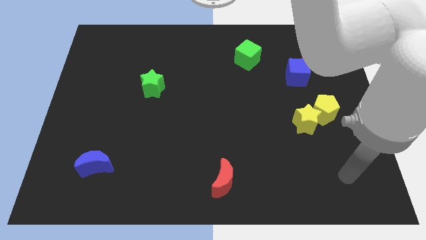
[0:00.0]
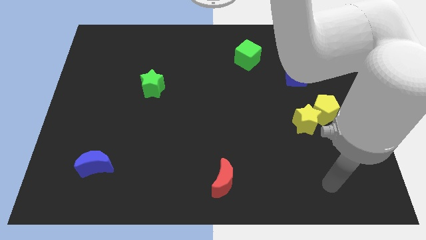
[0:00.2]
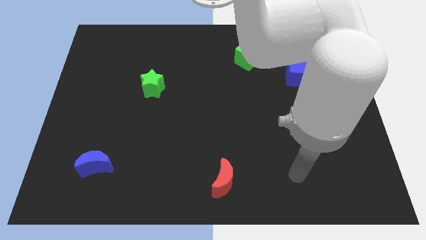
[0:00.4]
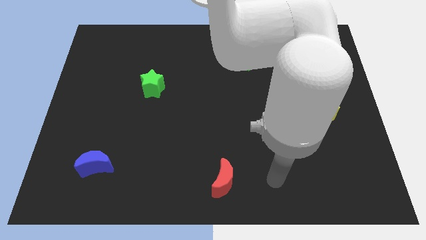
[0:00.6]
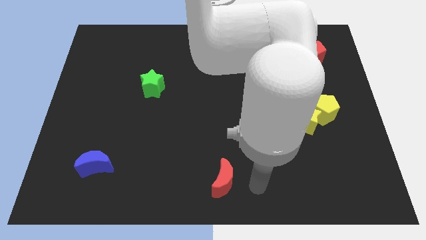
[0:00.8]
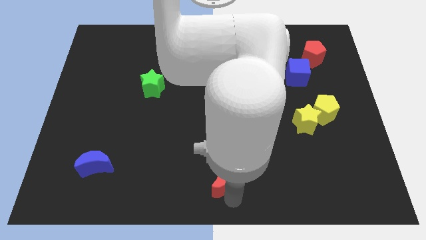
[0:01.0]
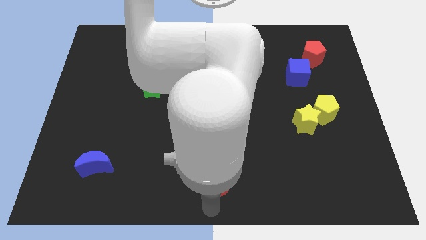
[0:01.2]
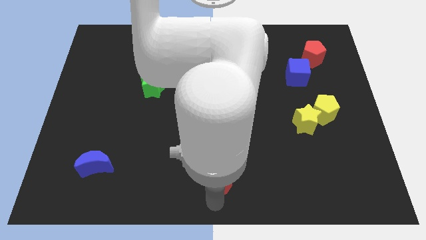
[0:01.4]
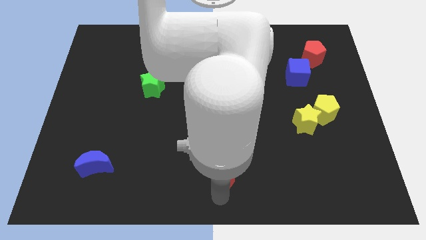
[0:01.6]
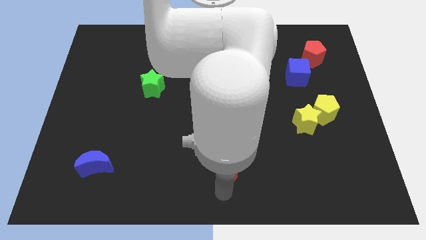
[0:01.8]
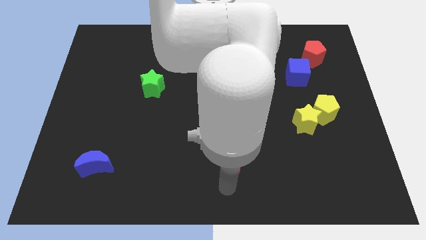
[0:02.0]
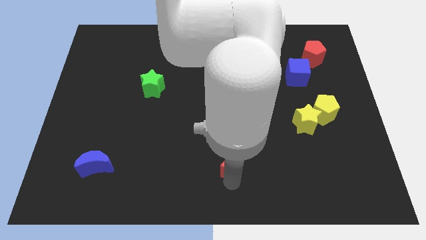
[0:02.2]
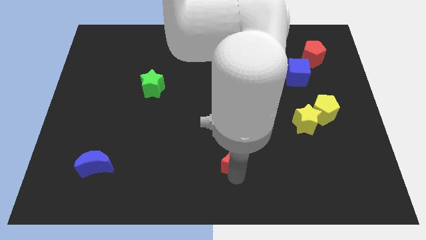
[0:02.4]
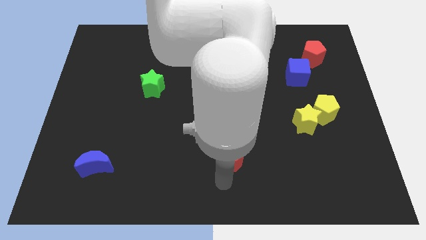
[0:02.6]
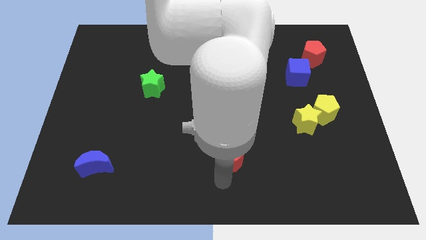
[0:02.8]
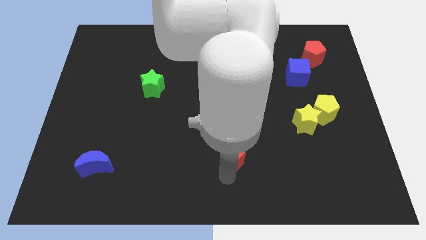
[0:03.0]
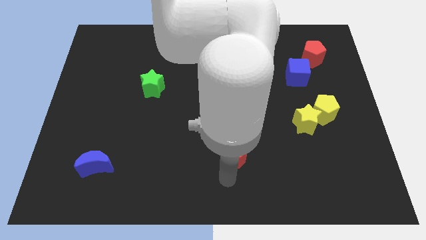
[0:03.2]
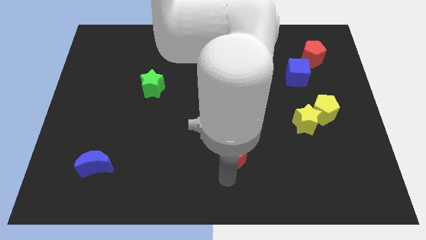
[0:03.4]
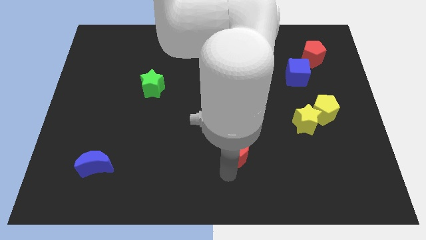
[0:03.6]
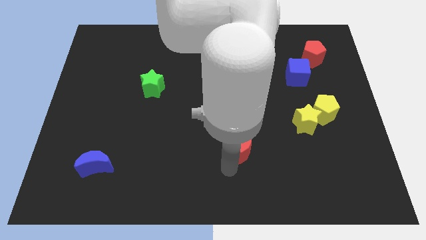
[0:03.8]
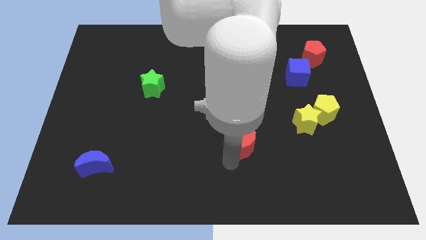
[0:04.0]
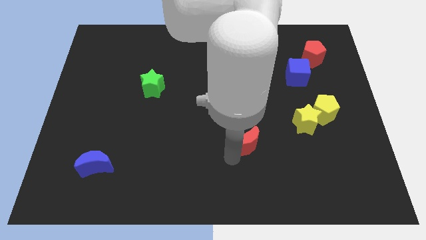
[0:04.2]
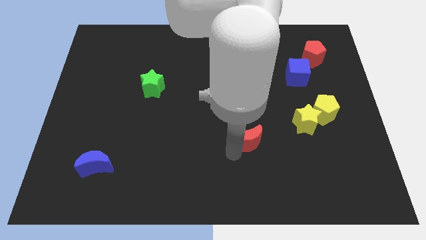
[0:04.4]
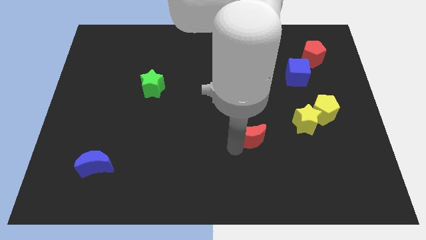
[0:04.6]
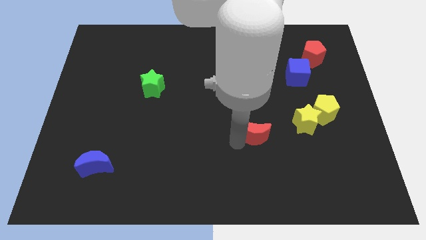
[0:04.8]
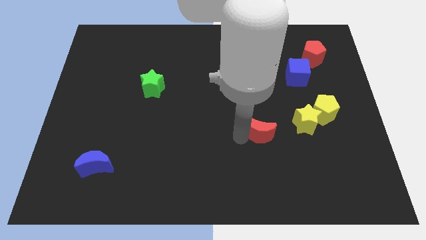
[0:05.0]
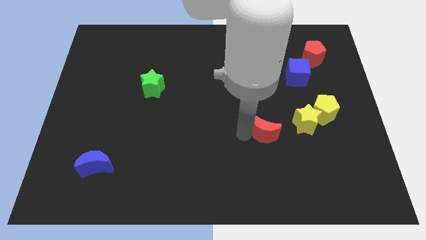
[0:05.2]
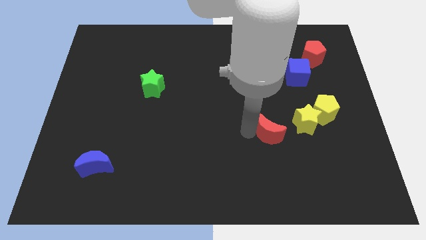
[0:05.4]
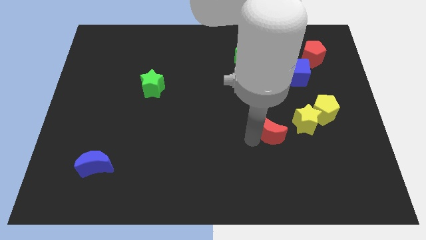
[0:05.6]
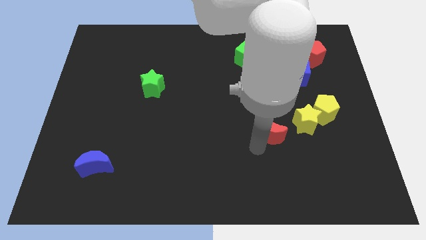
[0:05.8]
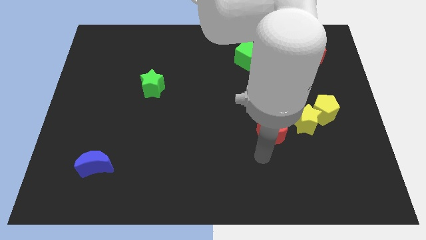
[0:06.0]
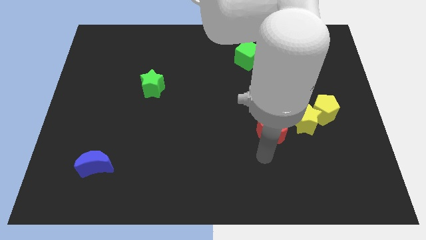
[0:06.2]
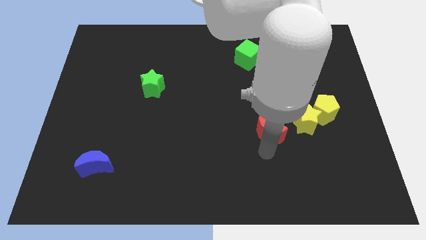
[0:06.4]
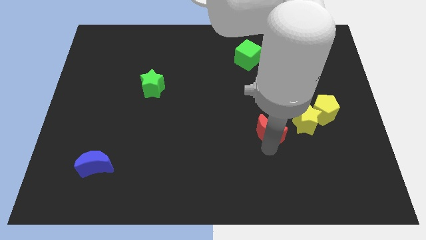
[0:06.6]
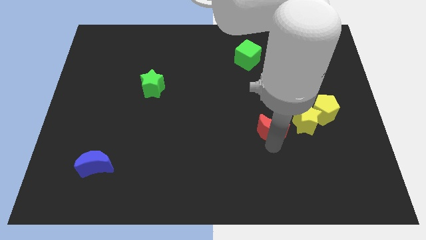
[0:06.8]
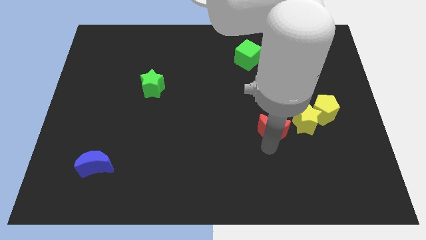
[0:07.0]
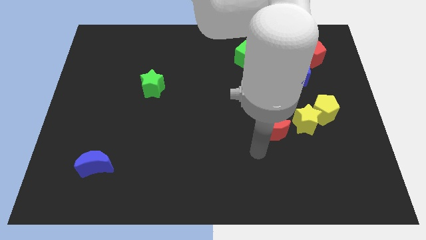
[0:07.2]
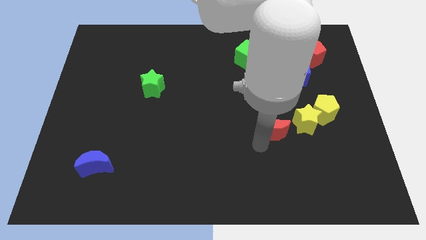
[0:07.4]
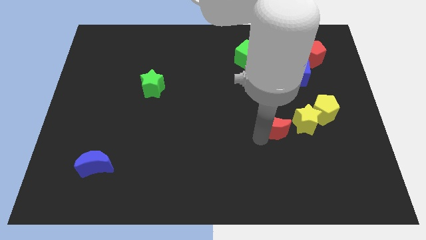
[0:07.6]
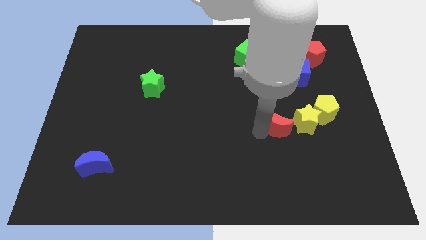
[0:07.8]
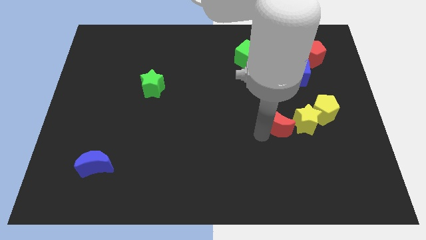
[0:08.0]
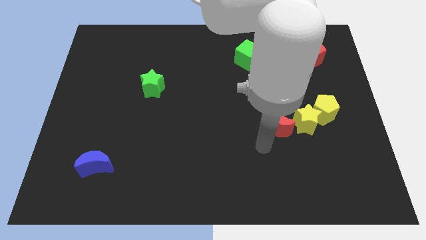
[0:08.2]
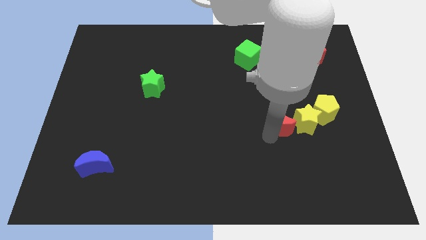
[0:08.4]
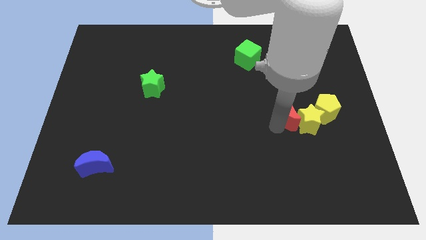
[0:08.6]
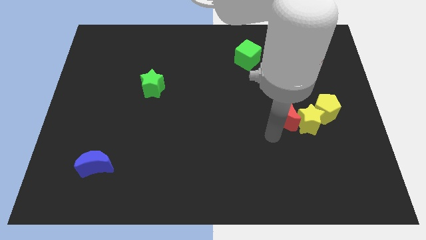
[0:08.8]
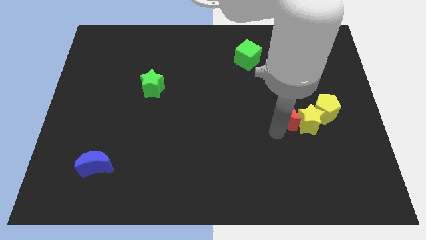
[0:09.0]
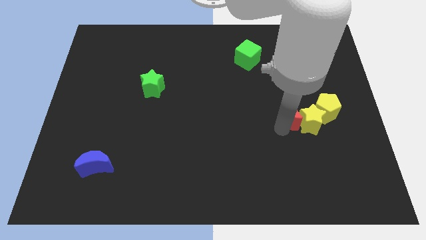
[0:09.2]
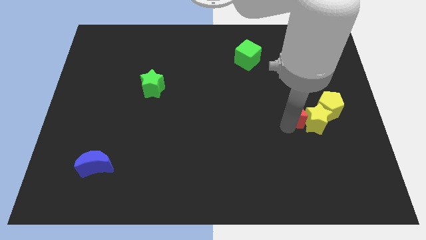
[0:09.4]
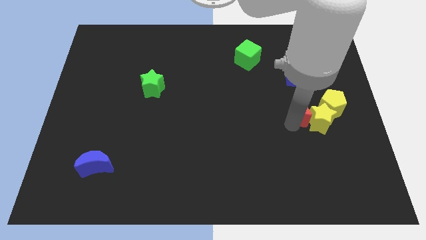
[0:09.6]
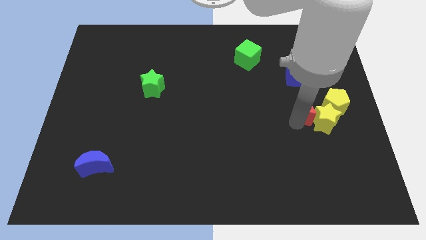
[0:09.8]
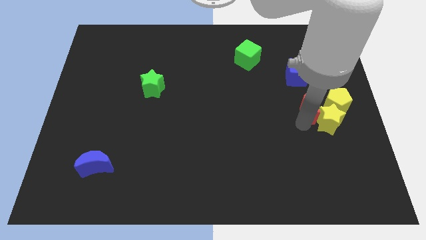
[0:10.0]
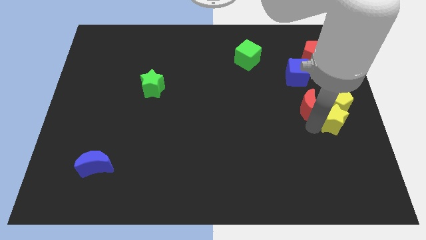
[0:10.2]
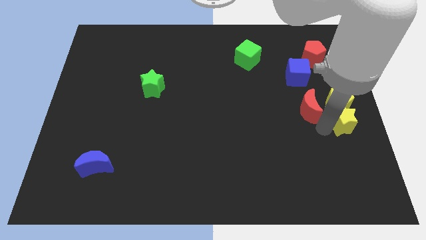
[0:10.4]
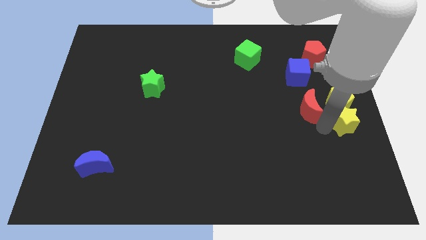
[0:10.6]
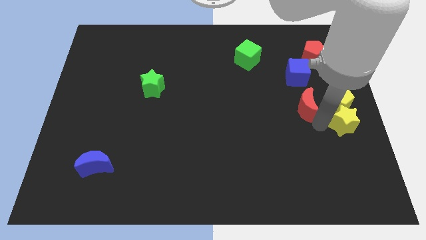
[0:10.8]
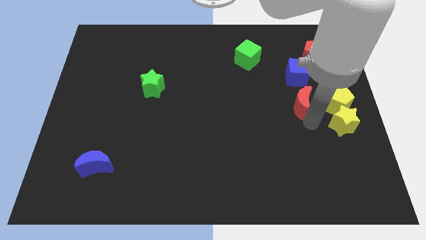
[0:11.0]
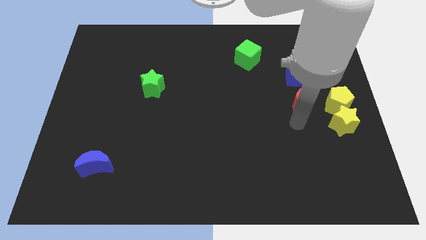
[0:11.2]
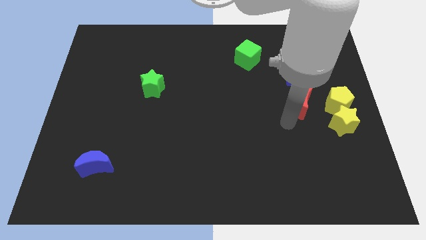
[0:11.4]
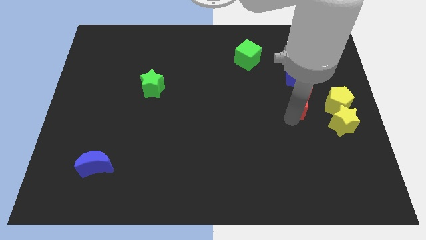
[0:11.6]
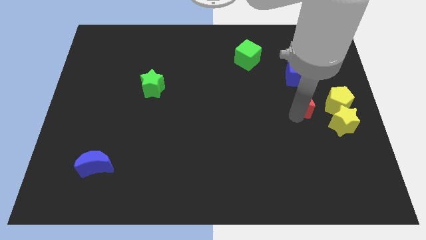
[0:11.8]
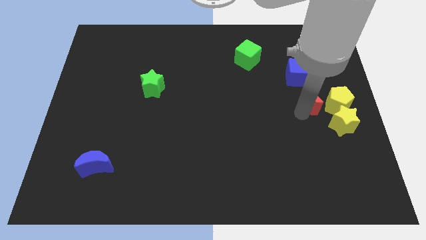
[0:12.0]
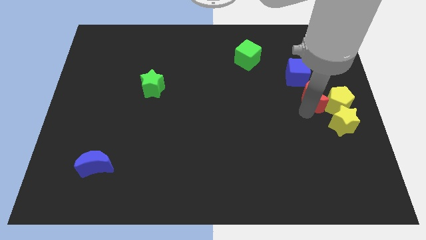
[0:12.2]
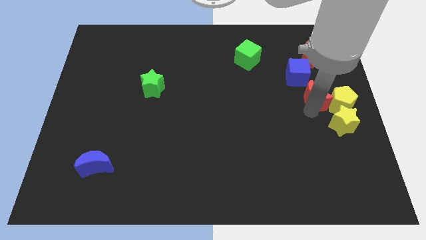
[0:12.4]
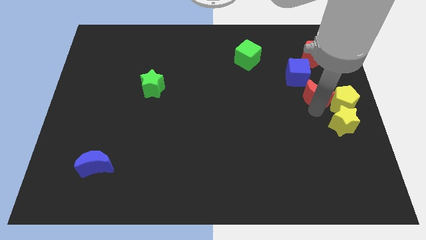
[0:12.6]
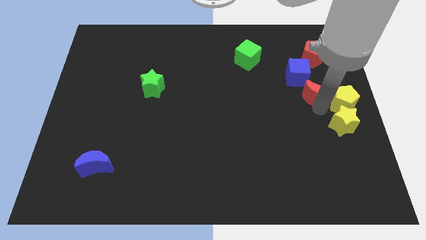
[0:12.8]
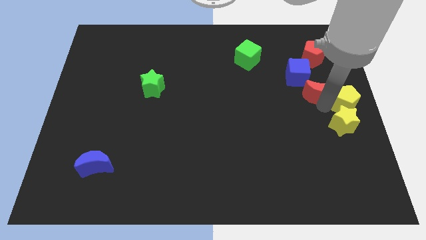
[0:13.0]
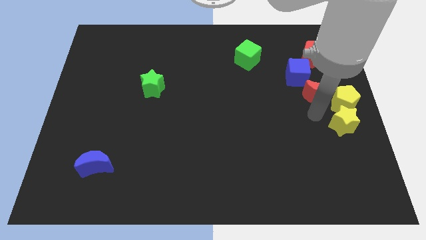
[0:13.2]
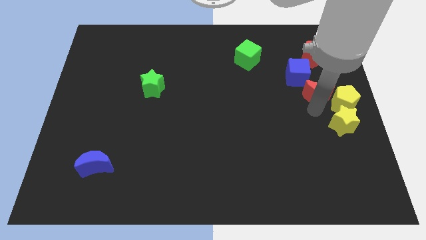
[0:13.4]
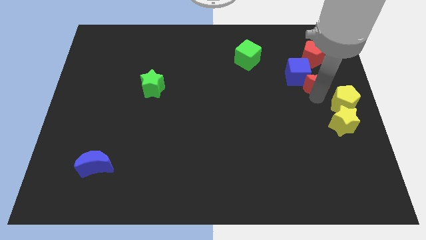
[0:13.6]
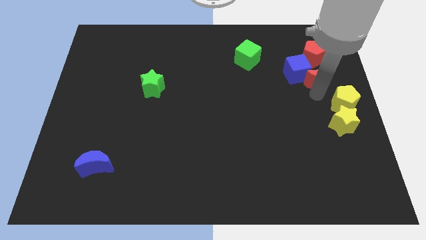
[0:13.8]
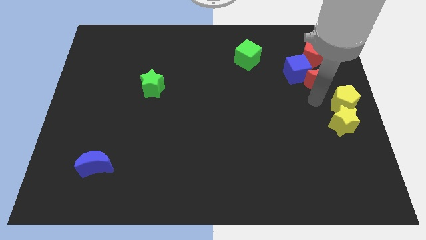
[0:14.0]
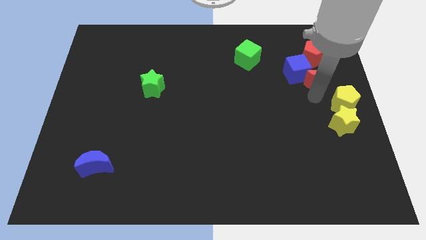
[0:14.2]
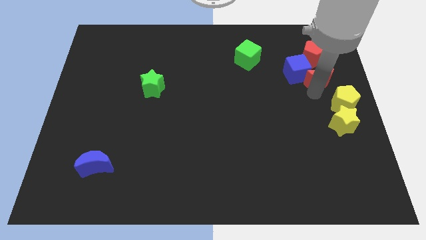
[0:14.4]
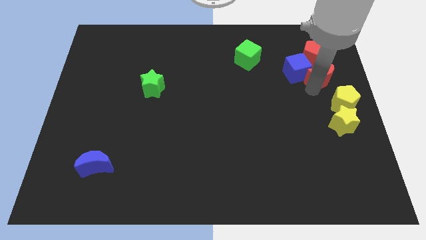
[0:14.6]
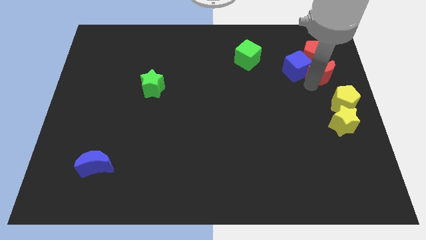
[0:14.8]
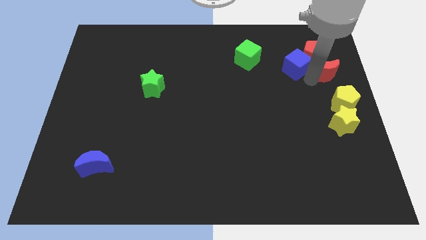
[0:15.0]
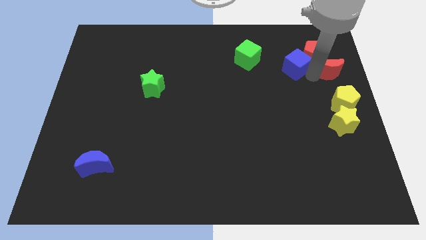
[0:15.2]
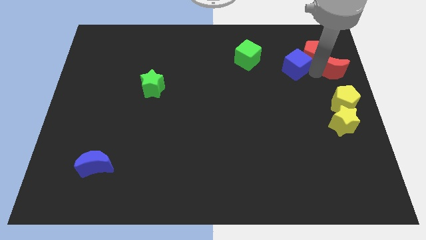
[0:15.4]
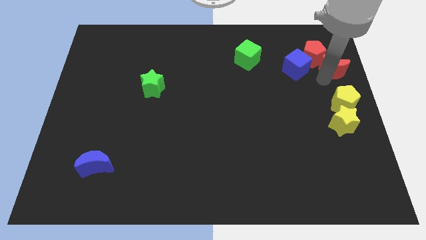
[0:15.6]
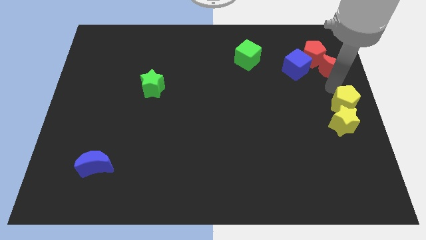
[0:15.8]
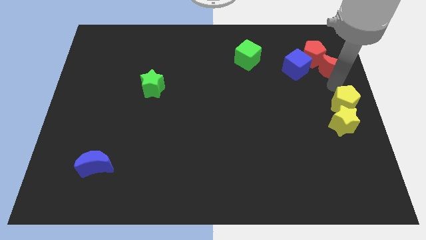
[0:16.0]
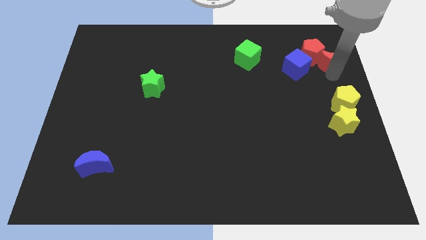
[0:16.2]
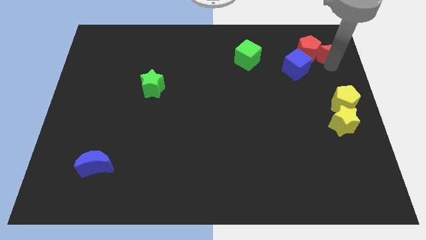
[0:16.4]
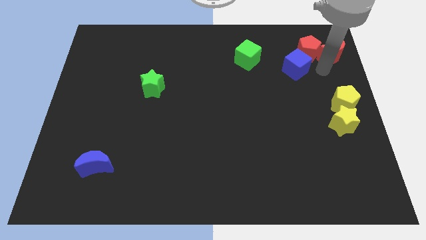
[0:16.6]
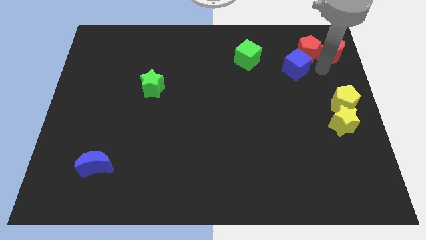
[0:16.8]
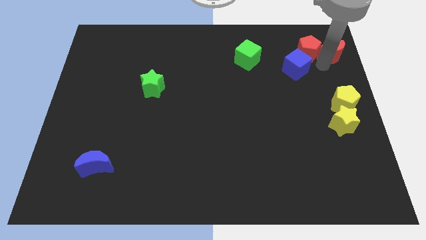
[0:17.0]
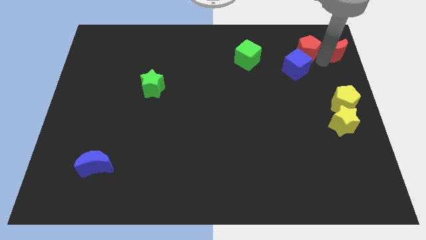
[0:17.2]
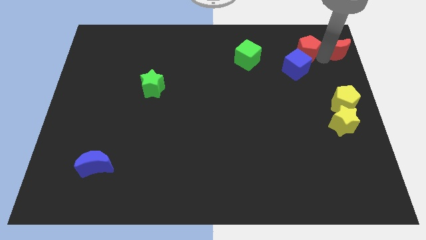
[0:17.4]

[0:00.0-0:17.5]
slide the red moon to the top right of the board
